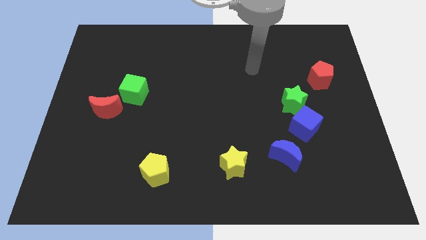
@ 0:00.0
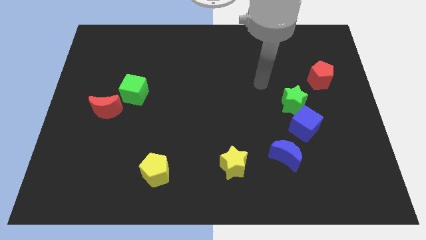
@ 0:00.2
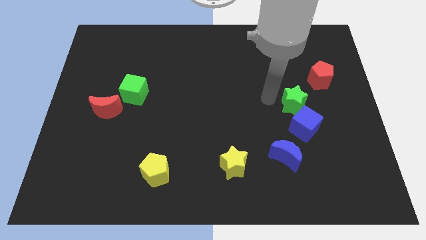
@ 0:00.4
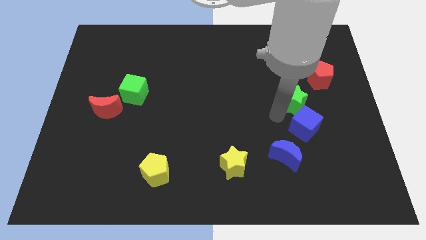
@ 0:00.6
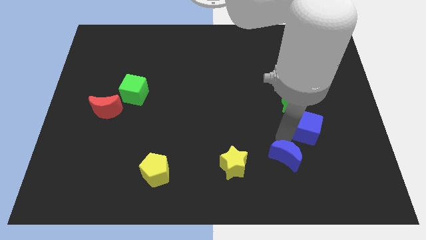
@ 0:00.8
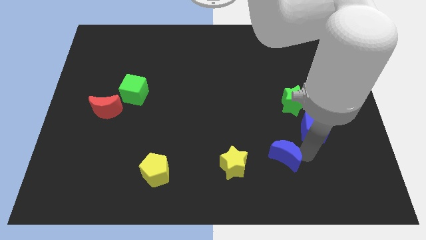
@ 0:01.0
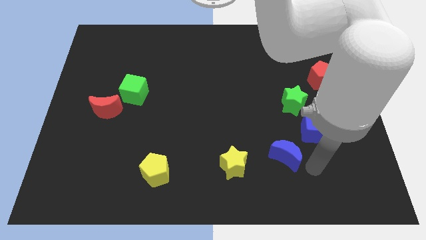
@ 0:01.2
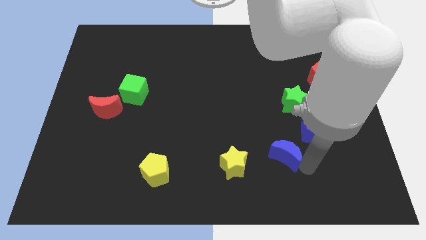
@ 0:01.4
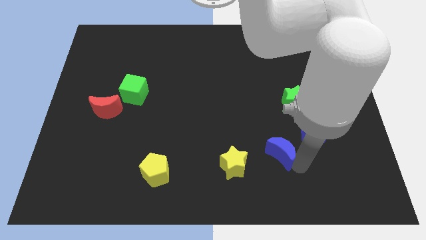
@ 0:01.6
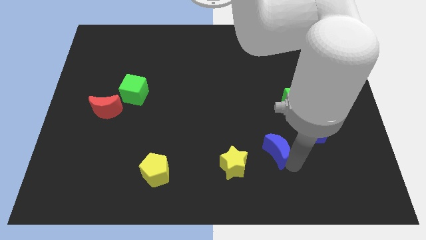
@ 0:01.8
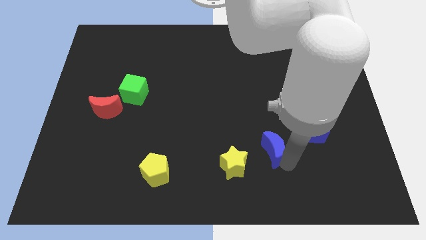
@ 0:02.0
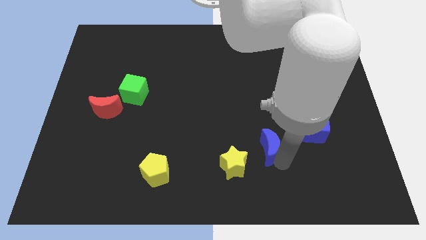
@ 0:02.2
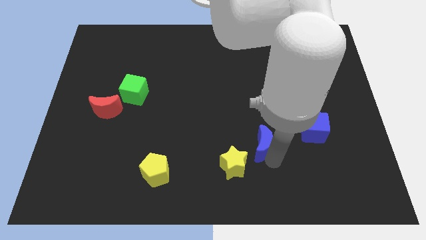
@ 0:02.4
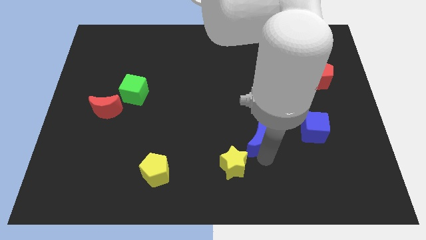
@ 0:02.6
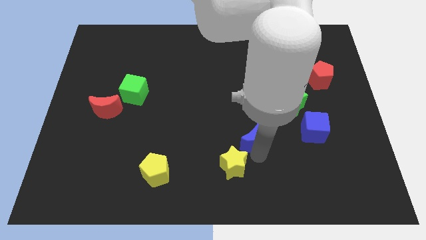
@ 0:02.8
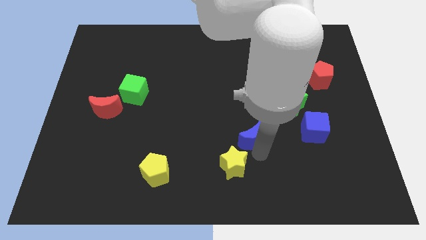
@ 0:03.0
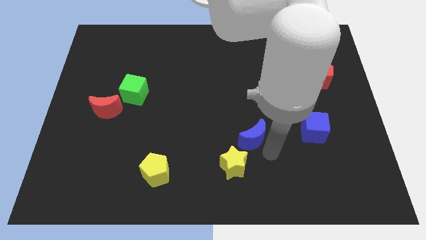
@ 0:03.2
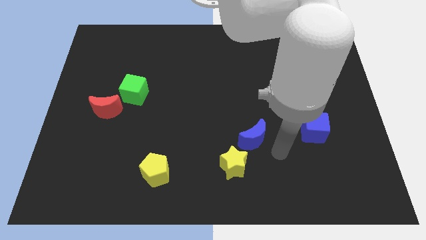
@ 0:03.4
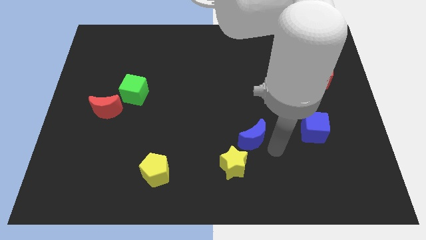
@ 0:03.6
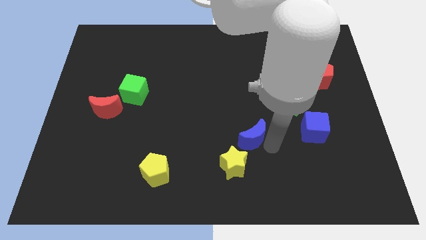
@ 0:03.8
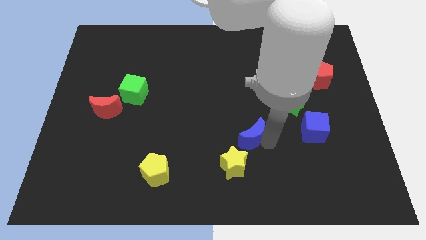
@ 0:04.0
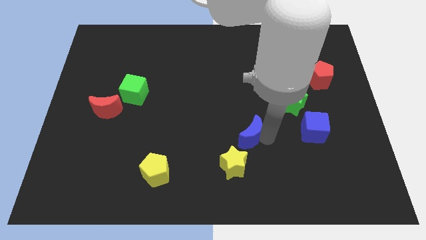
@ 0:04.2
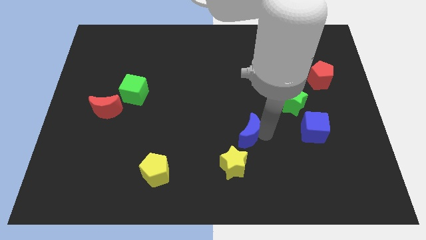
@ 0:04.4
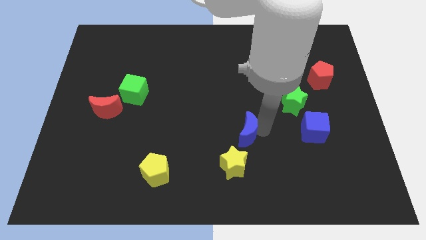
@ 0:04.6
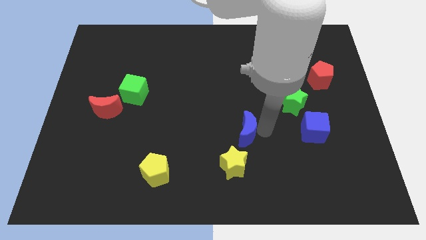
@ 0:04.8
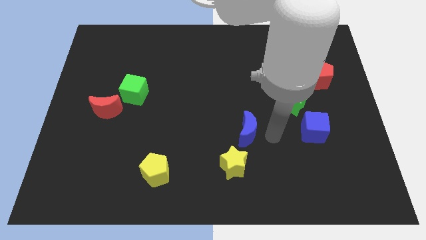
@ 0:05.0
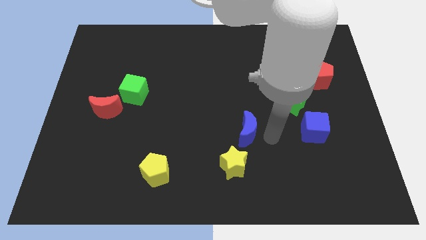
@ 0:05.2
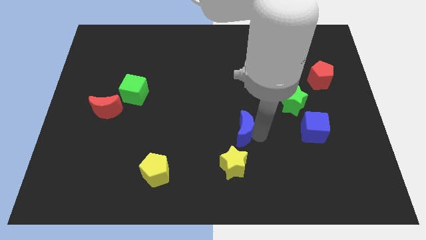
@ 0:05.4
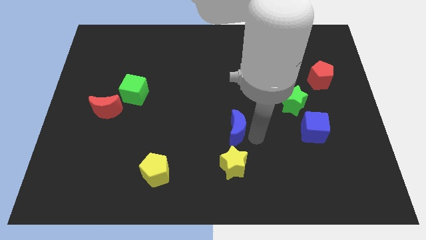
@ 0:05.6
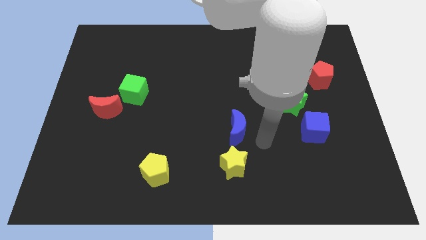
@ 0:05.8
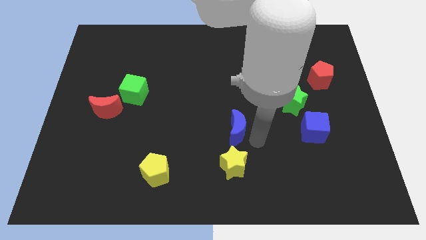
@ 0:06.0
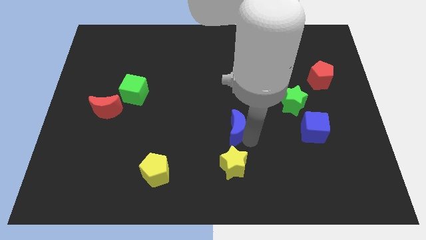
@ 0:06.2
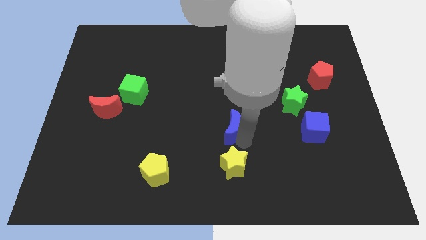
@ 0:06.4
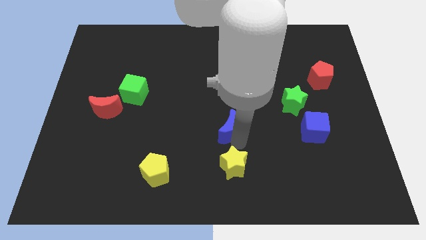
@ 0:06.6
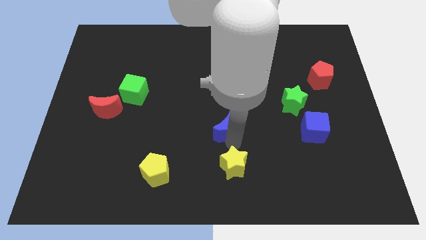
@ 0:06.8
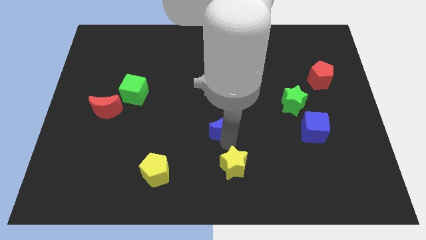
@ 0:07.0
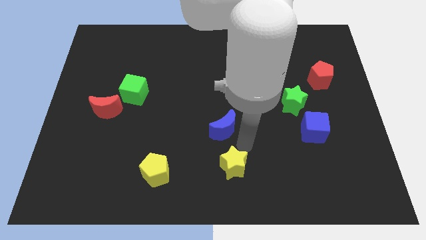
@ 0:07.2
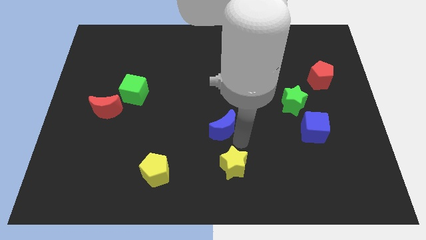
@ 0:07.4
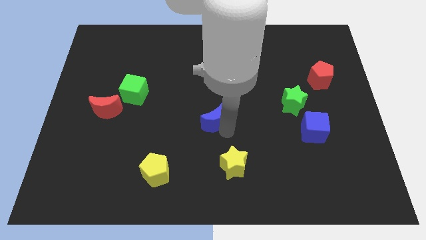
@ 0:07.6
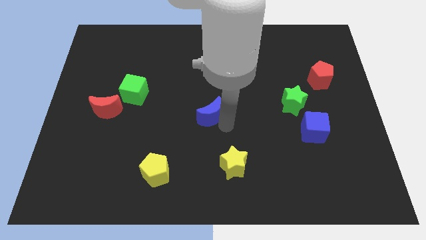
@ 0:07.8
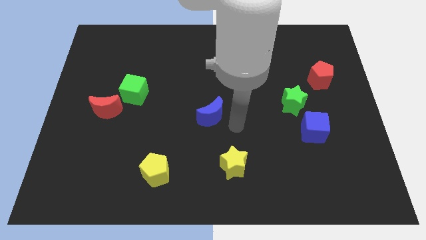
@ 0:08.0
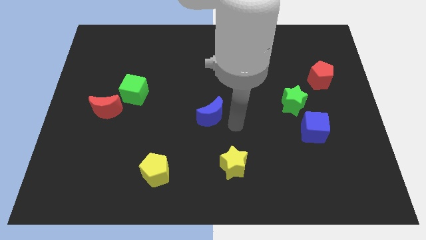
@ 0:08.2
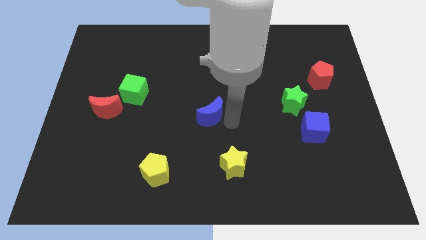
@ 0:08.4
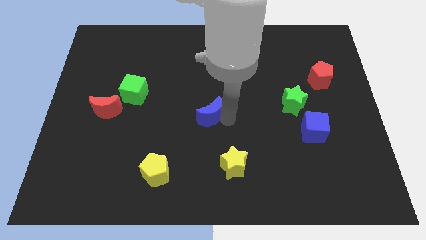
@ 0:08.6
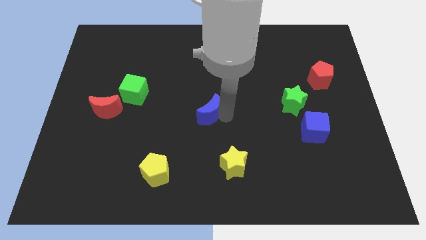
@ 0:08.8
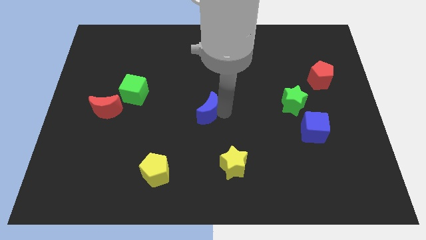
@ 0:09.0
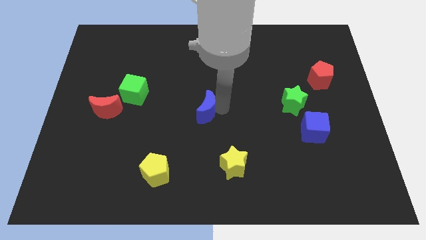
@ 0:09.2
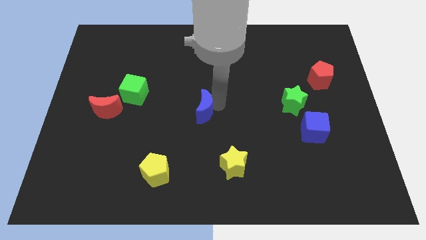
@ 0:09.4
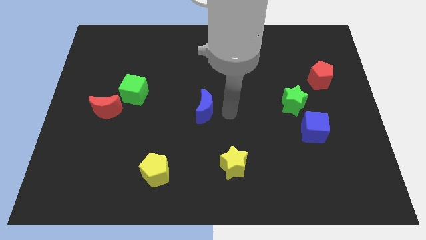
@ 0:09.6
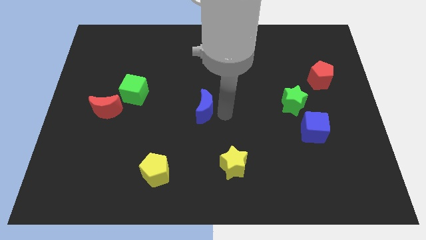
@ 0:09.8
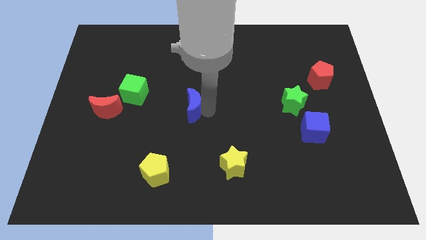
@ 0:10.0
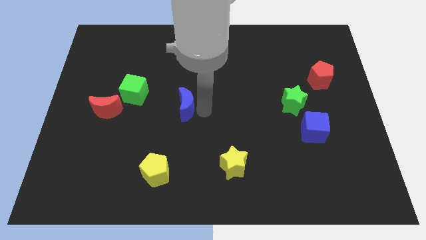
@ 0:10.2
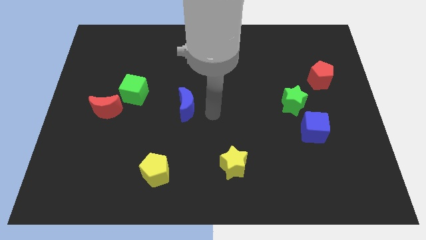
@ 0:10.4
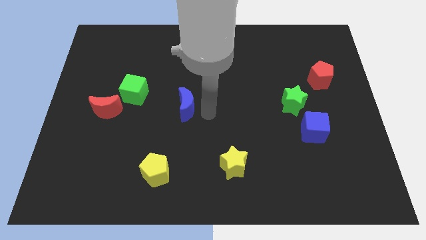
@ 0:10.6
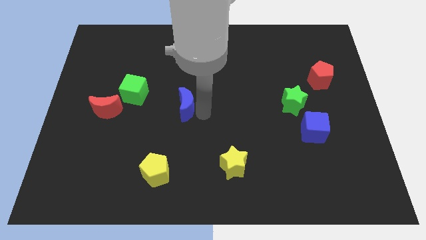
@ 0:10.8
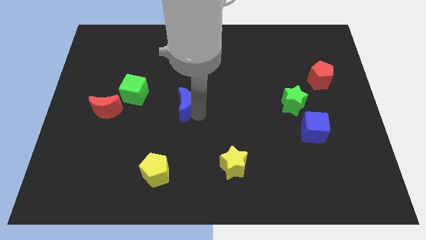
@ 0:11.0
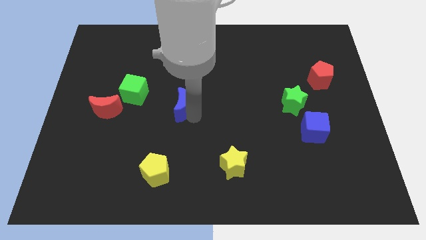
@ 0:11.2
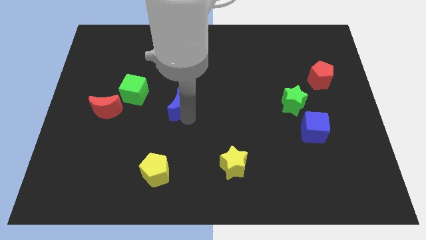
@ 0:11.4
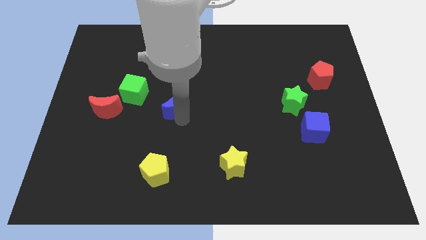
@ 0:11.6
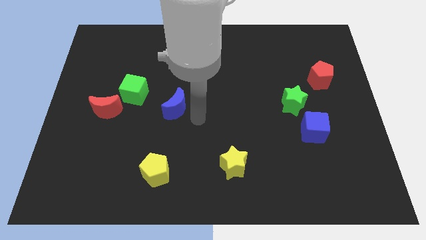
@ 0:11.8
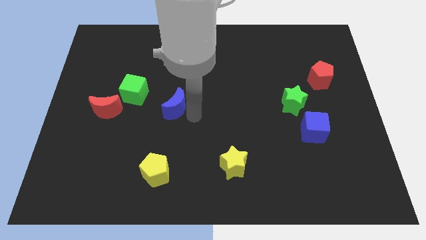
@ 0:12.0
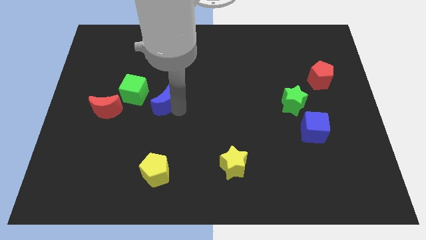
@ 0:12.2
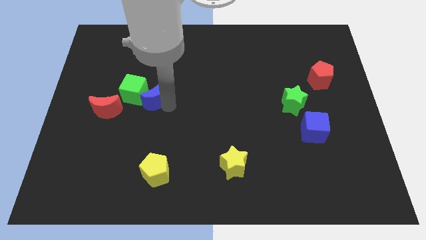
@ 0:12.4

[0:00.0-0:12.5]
put the blue moon towards the green cube

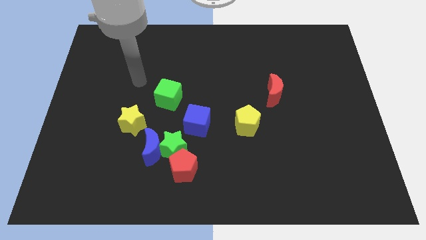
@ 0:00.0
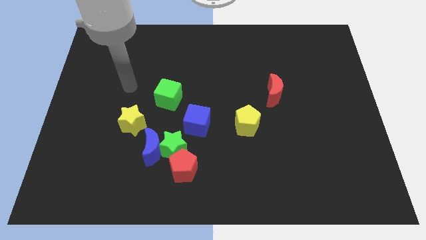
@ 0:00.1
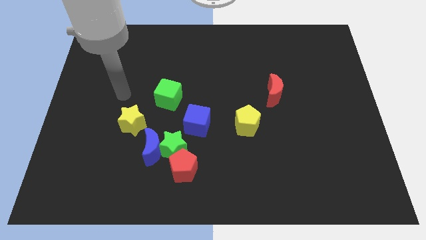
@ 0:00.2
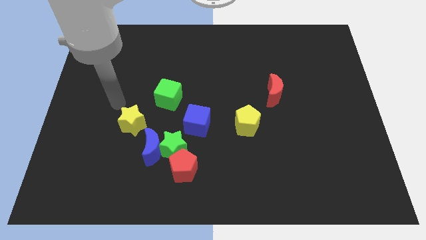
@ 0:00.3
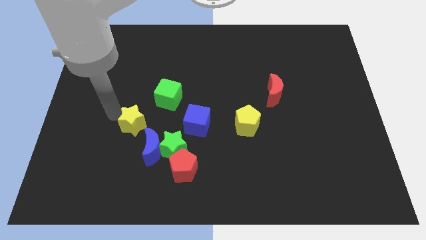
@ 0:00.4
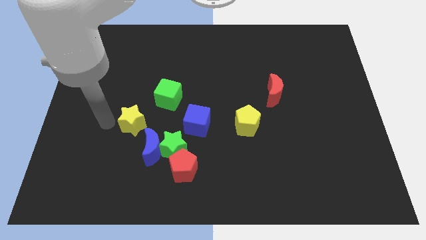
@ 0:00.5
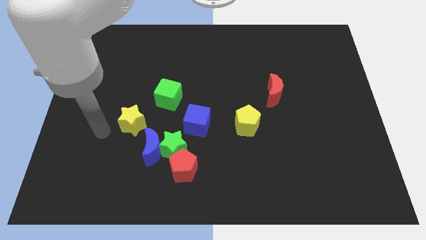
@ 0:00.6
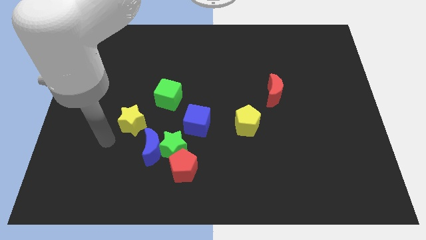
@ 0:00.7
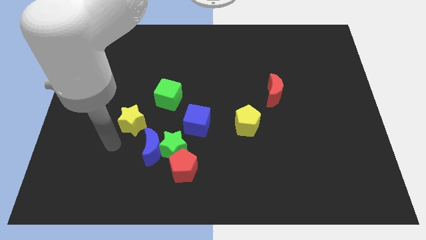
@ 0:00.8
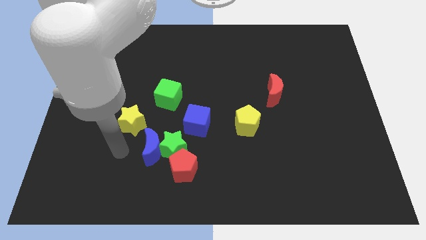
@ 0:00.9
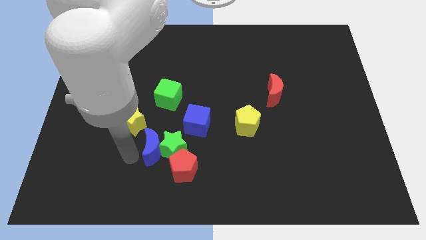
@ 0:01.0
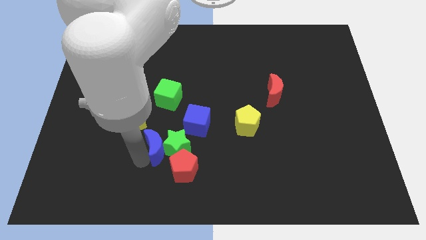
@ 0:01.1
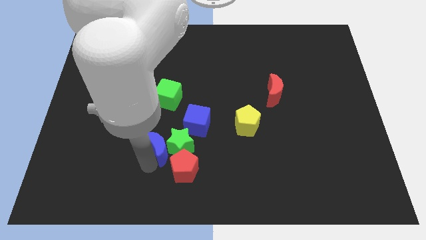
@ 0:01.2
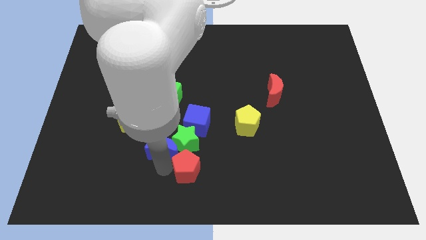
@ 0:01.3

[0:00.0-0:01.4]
slide the green star to the blue cube
